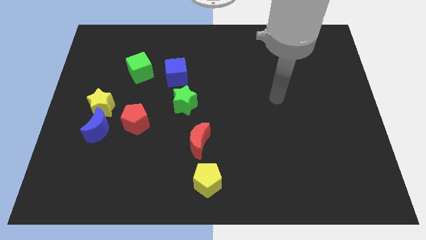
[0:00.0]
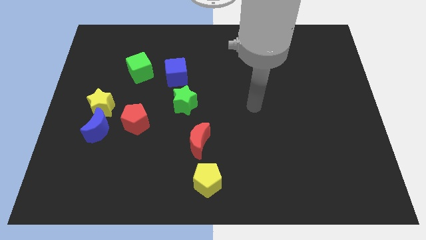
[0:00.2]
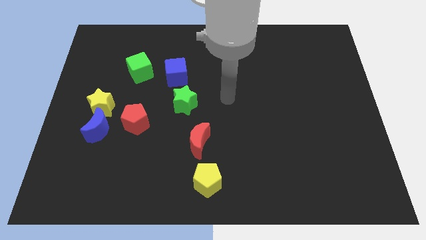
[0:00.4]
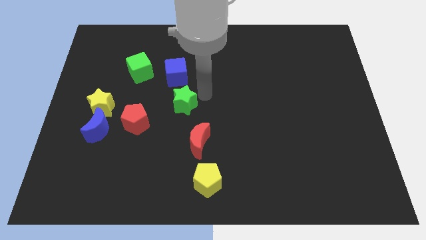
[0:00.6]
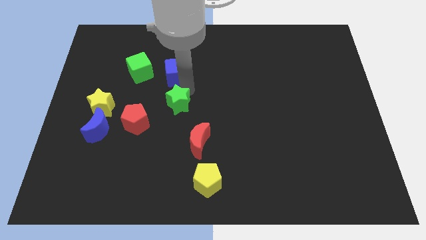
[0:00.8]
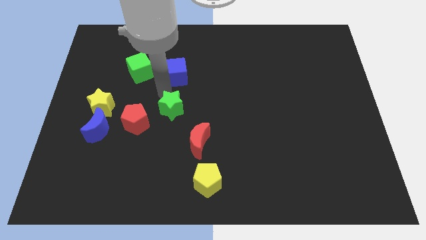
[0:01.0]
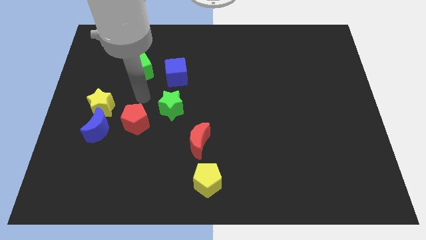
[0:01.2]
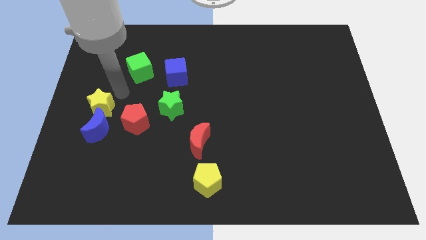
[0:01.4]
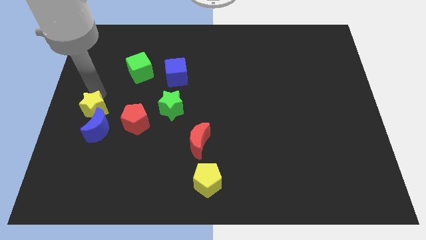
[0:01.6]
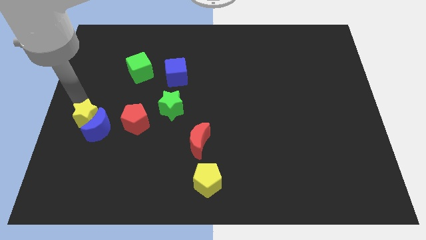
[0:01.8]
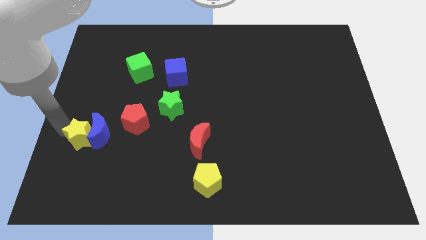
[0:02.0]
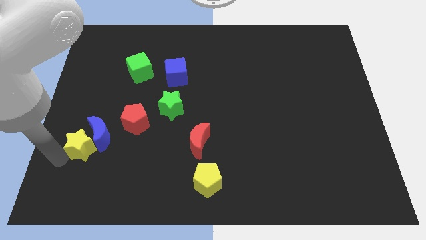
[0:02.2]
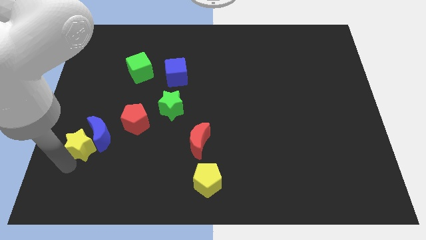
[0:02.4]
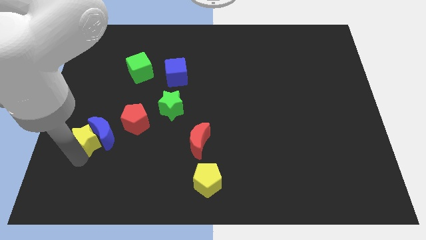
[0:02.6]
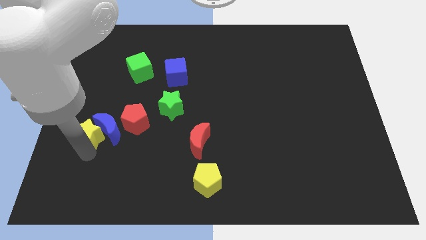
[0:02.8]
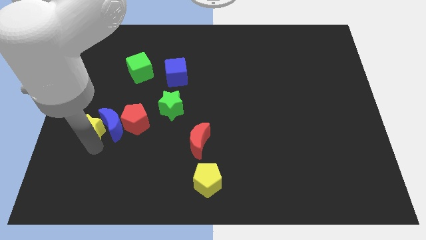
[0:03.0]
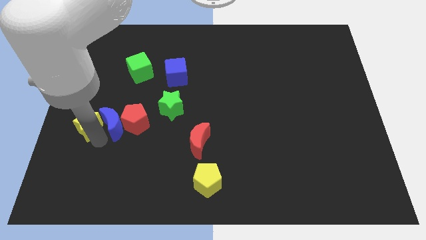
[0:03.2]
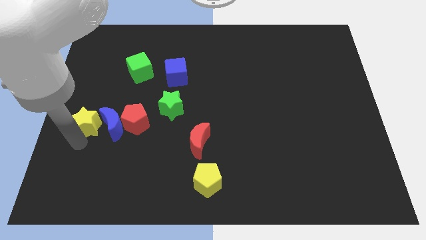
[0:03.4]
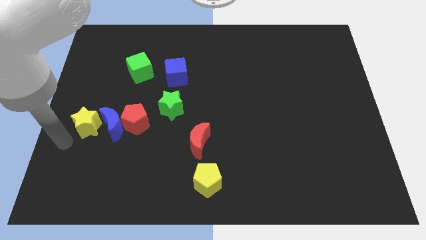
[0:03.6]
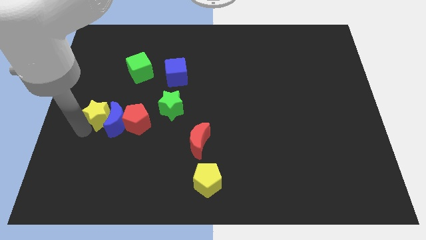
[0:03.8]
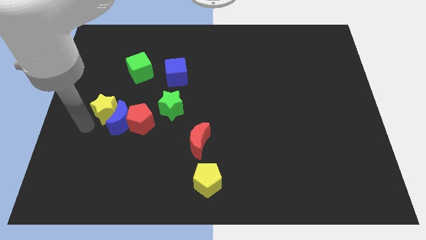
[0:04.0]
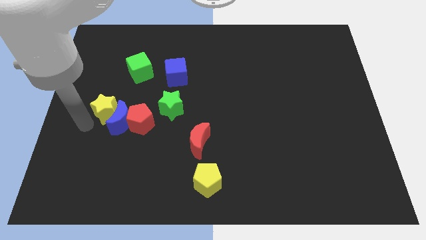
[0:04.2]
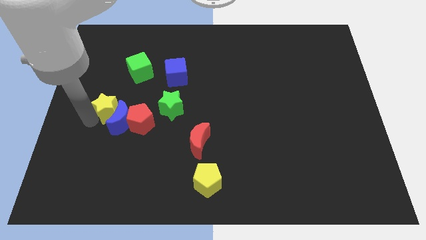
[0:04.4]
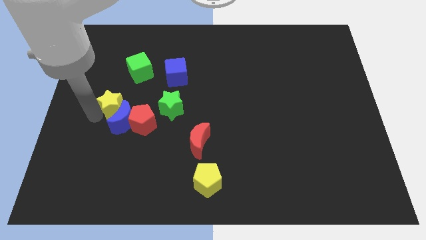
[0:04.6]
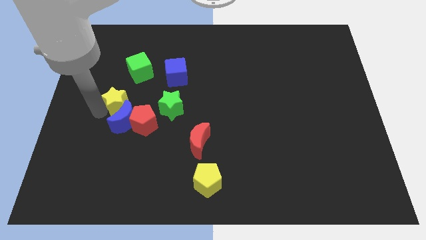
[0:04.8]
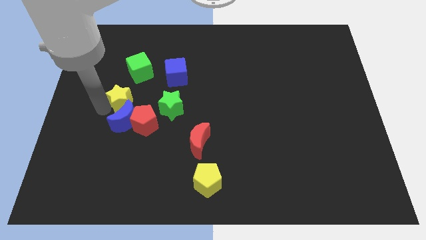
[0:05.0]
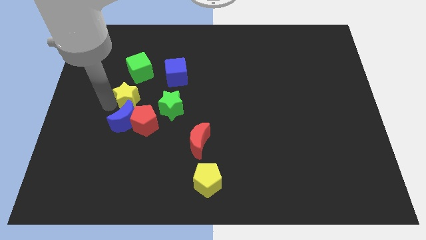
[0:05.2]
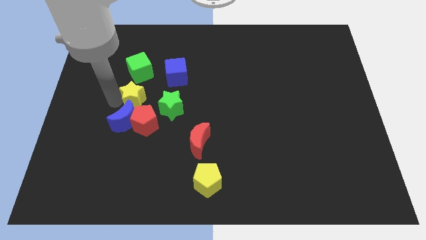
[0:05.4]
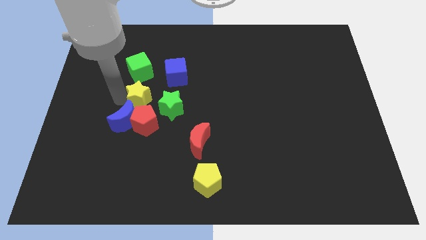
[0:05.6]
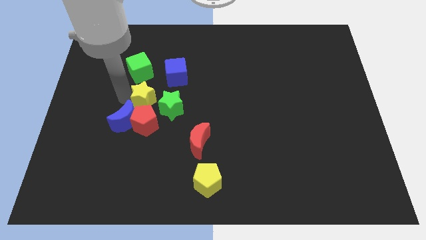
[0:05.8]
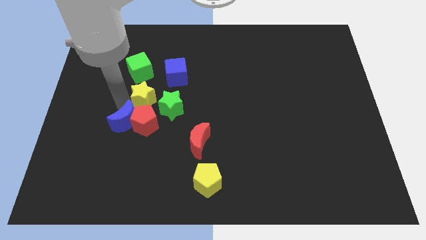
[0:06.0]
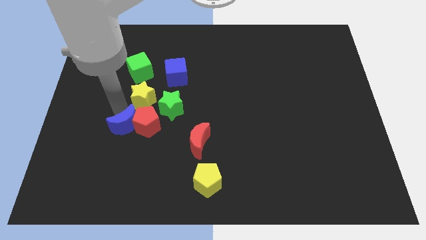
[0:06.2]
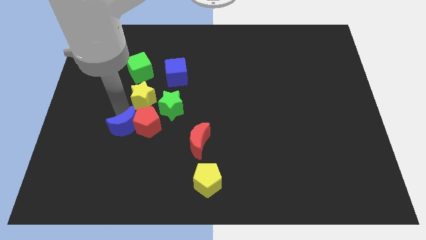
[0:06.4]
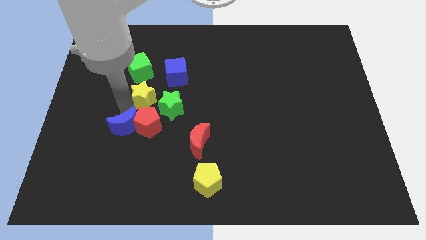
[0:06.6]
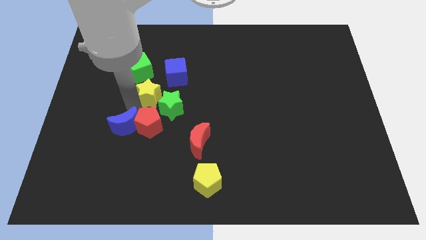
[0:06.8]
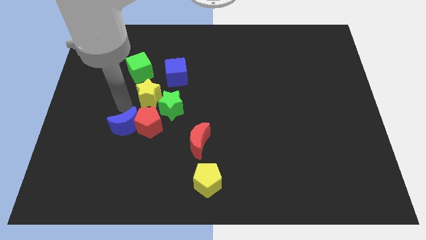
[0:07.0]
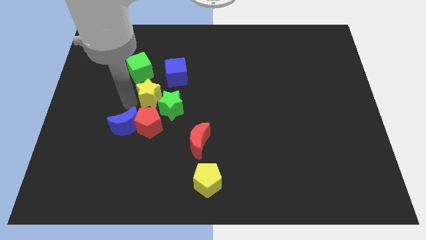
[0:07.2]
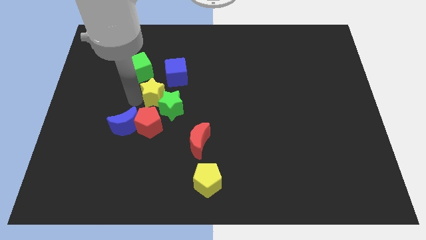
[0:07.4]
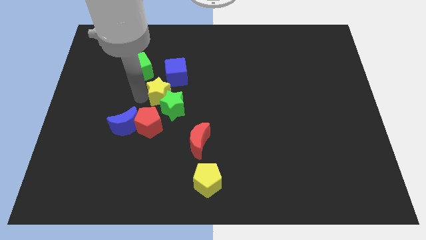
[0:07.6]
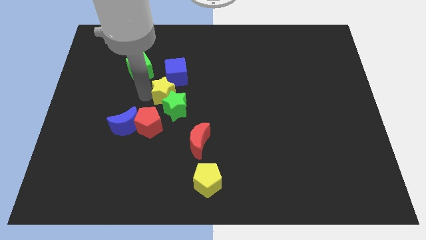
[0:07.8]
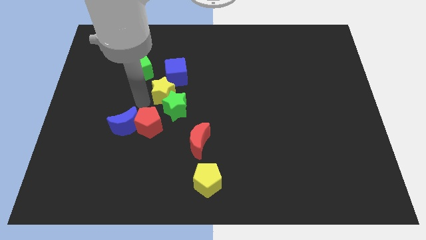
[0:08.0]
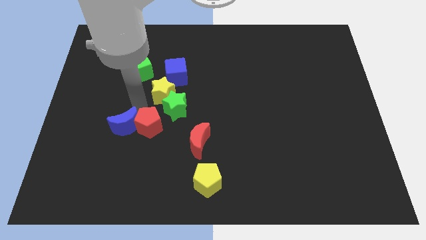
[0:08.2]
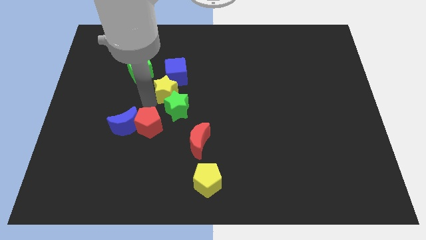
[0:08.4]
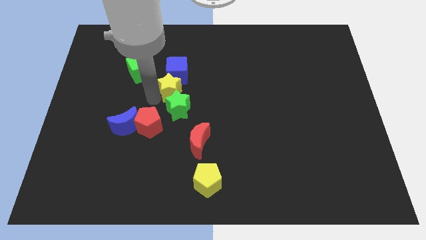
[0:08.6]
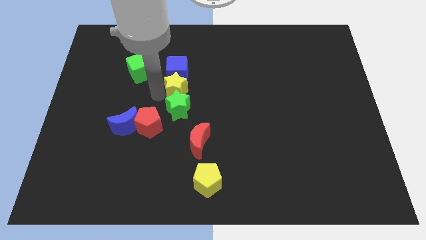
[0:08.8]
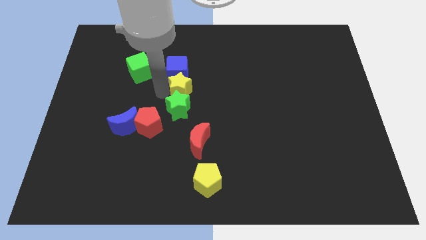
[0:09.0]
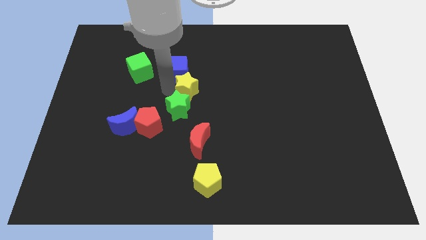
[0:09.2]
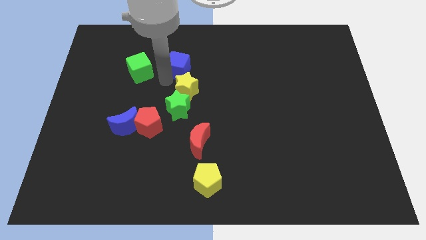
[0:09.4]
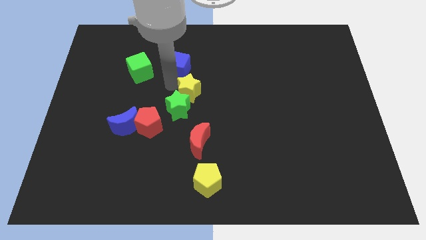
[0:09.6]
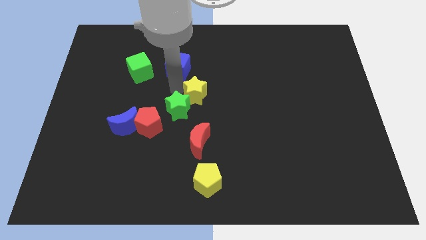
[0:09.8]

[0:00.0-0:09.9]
put the yellow star right of the green star

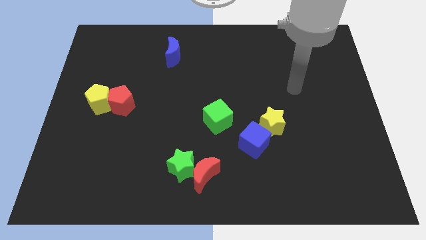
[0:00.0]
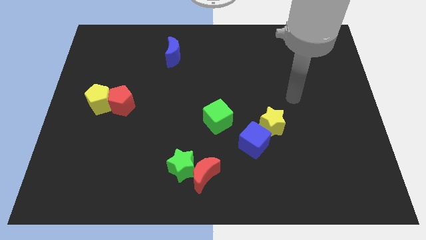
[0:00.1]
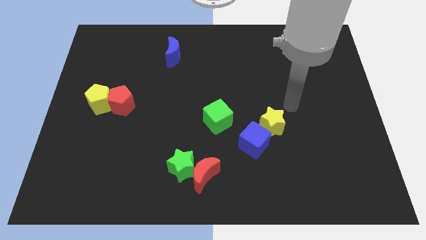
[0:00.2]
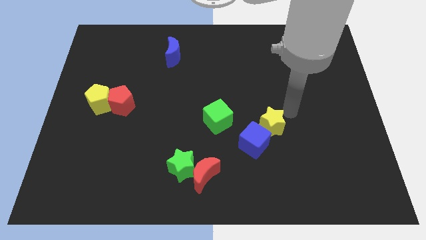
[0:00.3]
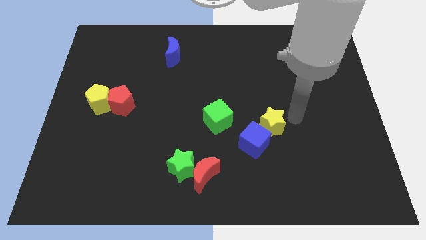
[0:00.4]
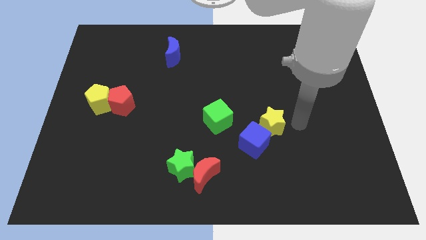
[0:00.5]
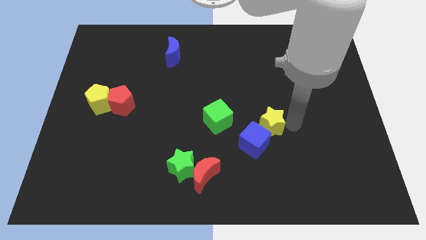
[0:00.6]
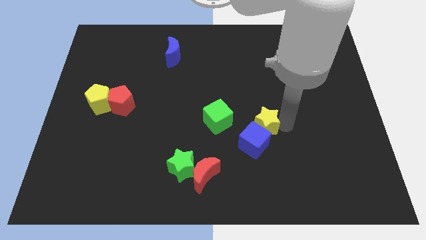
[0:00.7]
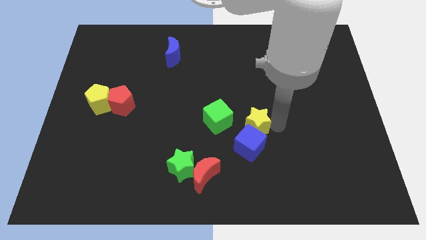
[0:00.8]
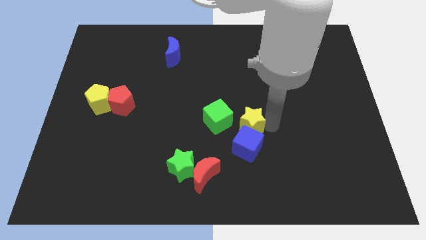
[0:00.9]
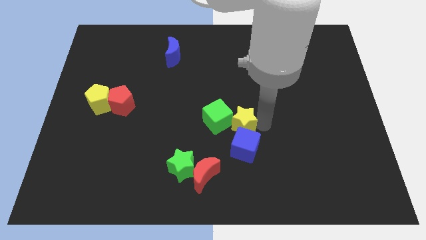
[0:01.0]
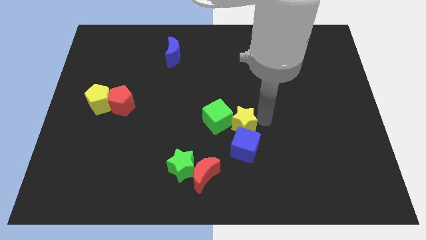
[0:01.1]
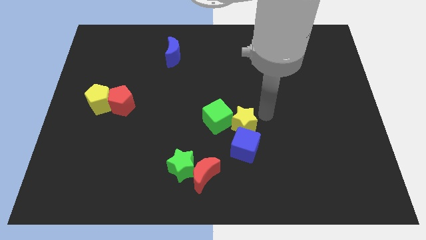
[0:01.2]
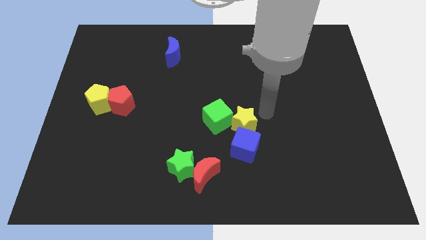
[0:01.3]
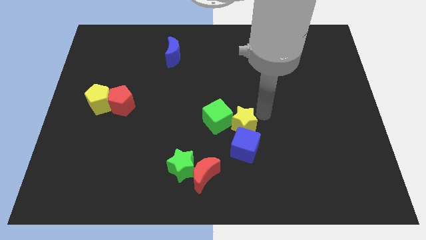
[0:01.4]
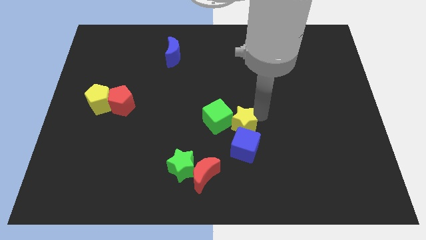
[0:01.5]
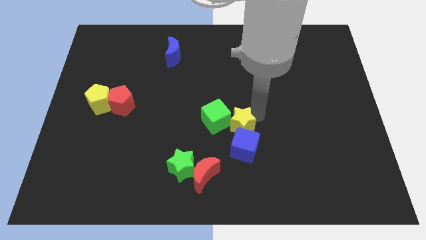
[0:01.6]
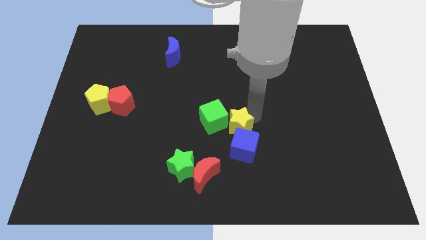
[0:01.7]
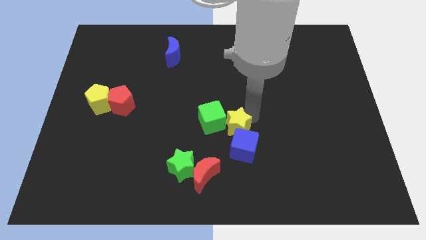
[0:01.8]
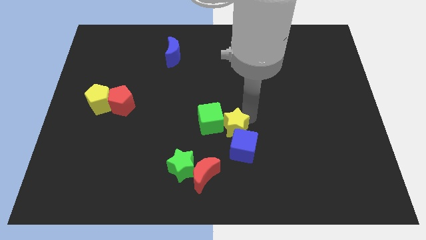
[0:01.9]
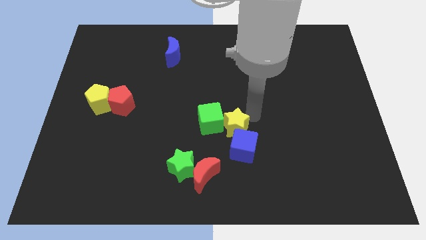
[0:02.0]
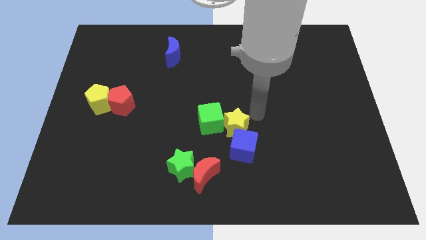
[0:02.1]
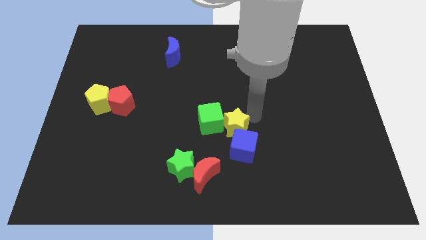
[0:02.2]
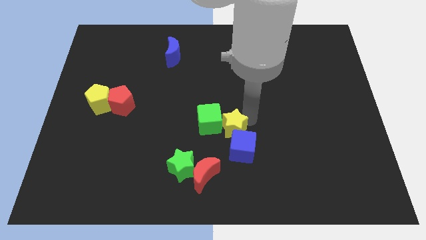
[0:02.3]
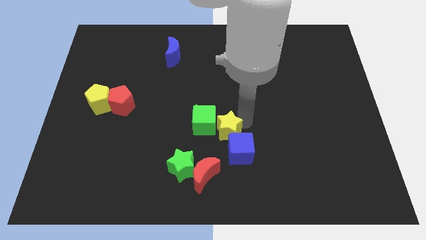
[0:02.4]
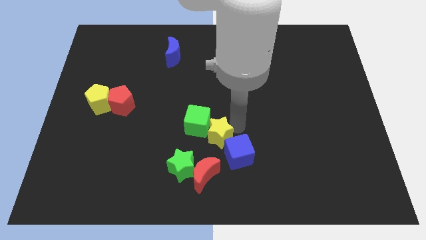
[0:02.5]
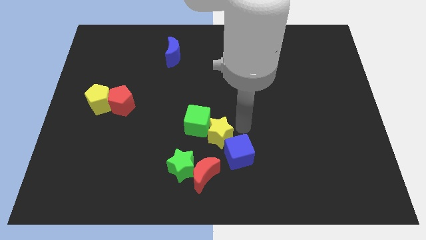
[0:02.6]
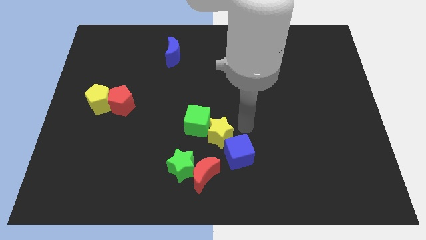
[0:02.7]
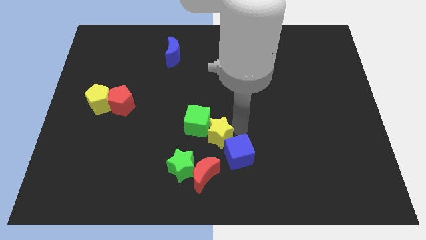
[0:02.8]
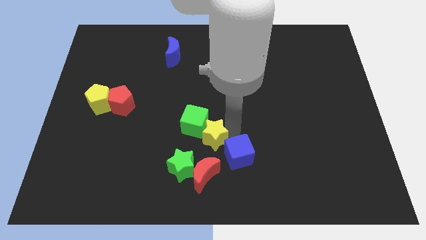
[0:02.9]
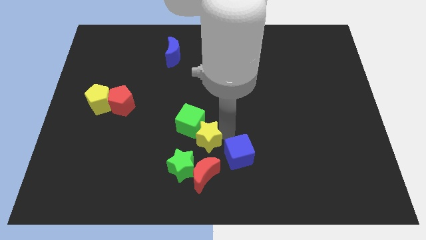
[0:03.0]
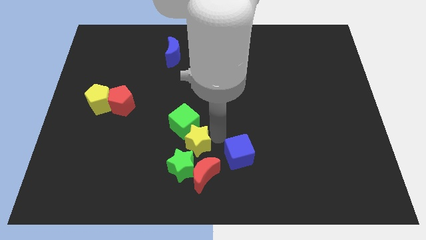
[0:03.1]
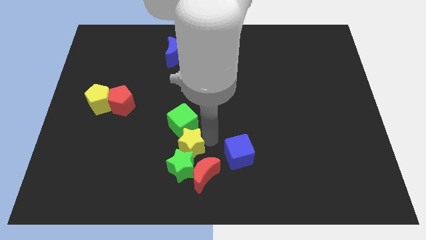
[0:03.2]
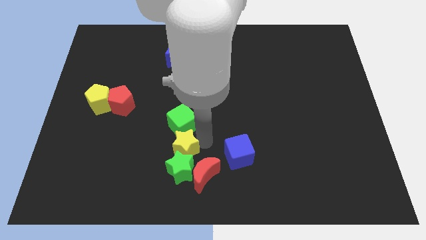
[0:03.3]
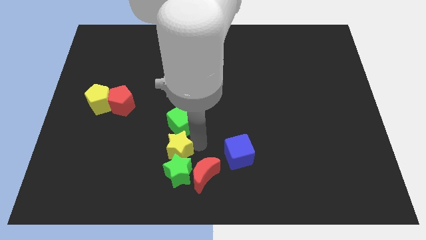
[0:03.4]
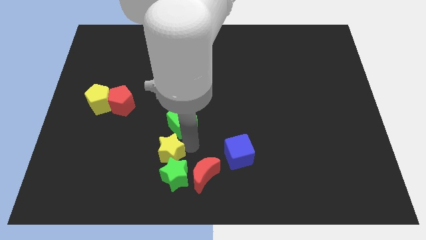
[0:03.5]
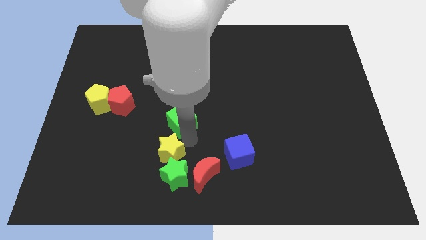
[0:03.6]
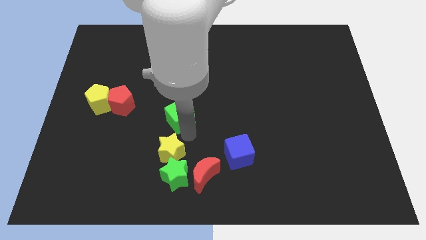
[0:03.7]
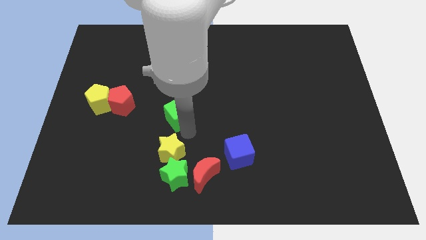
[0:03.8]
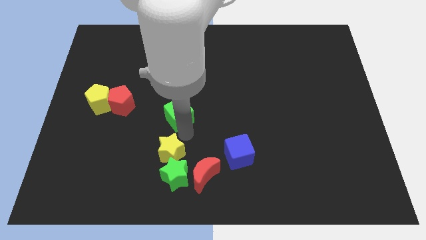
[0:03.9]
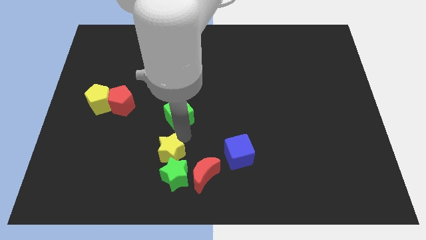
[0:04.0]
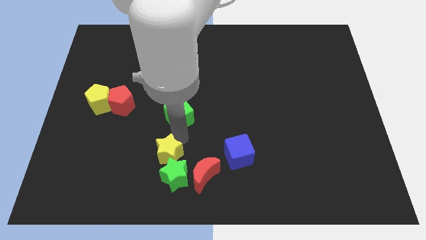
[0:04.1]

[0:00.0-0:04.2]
put the yellow star to the left side of the red moon
